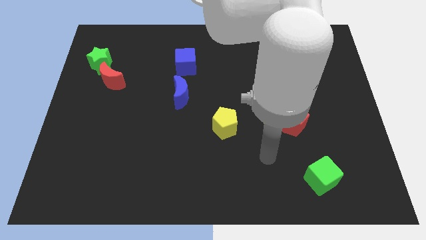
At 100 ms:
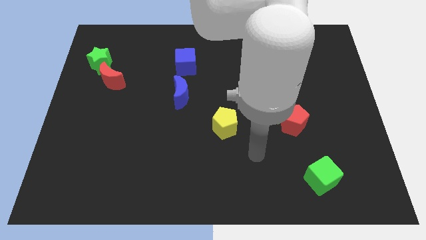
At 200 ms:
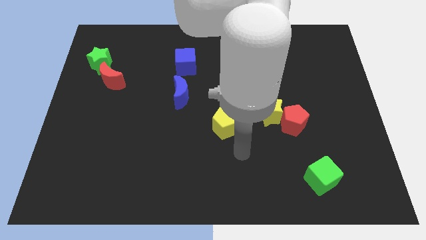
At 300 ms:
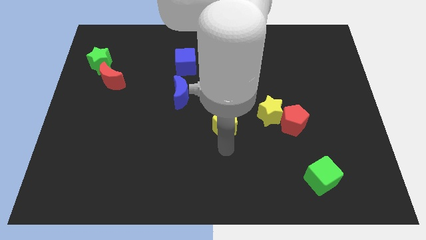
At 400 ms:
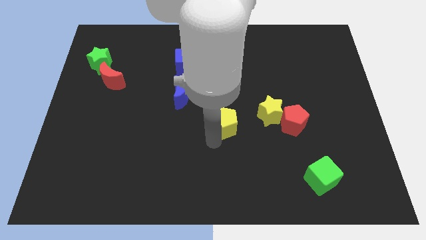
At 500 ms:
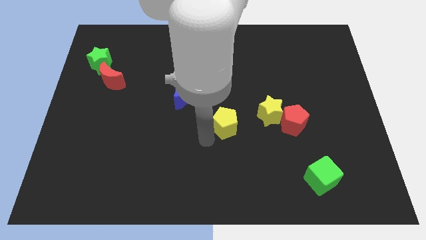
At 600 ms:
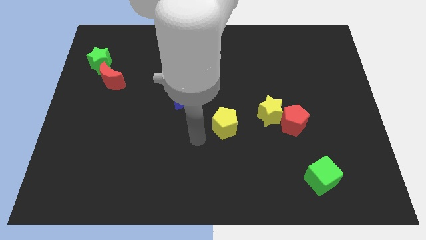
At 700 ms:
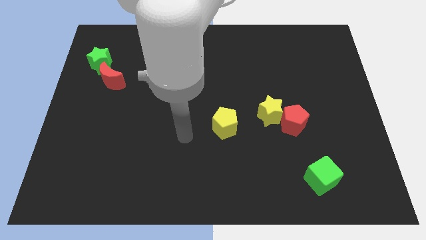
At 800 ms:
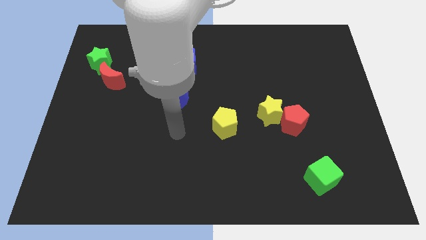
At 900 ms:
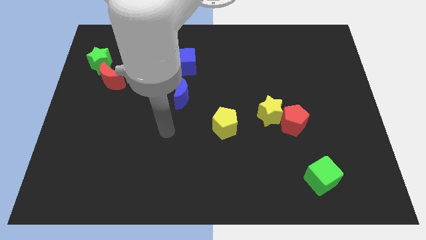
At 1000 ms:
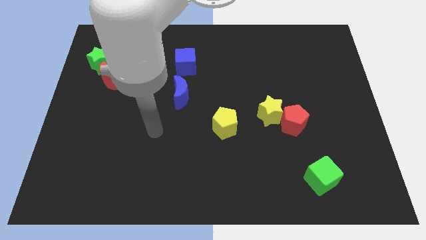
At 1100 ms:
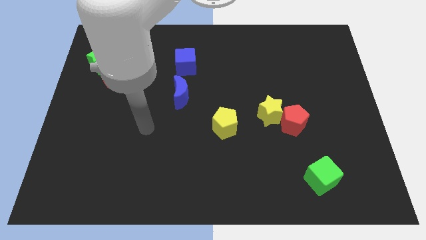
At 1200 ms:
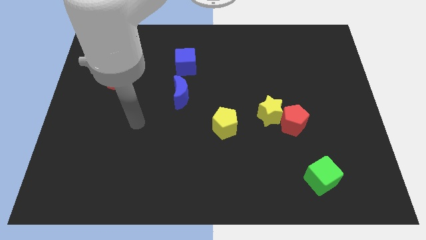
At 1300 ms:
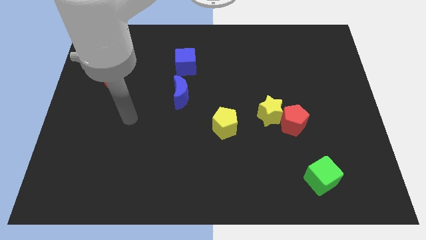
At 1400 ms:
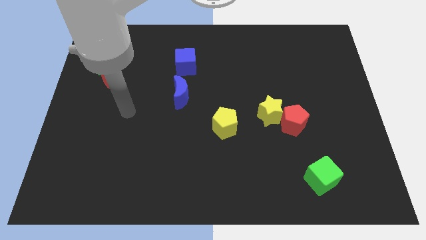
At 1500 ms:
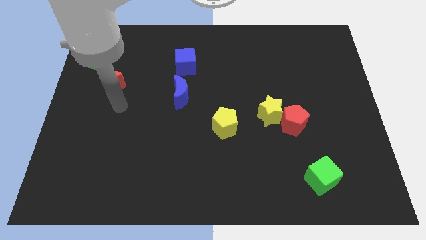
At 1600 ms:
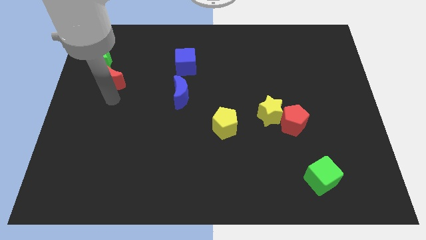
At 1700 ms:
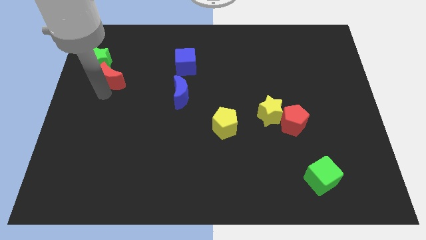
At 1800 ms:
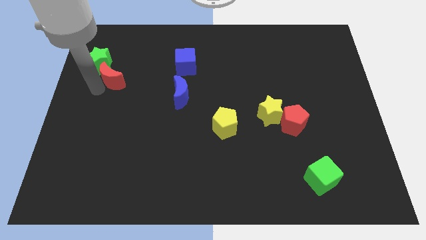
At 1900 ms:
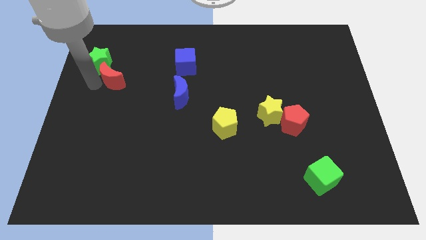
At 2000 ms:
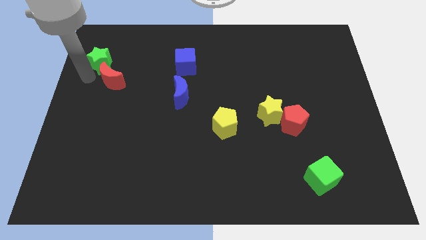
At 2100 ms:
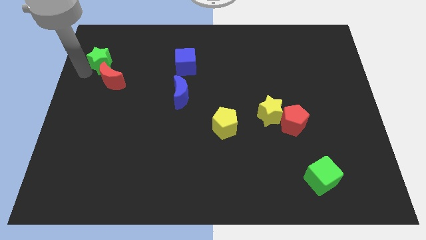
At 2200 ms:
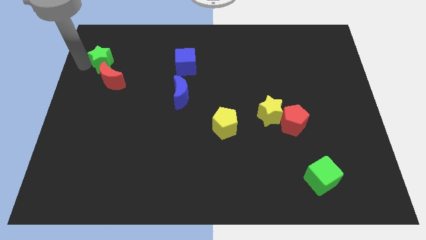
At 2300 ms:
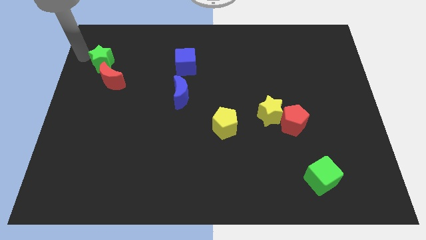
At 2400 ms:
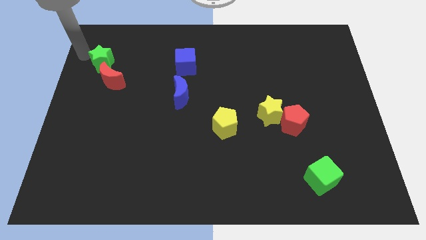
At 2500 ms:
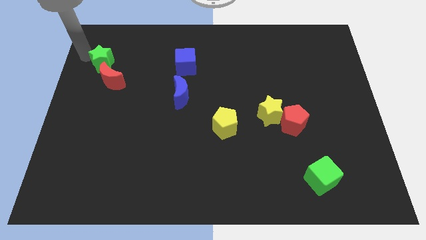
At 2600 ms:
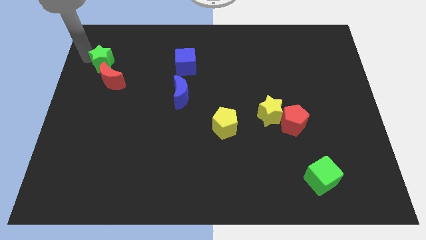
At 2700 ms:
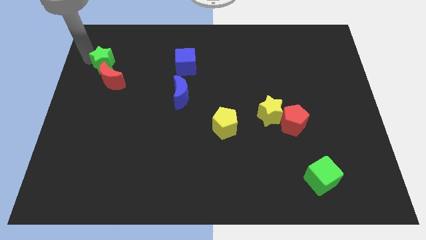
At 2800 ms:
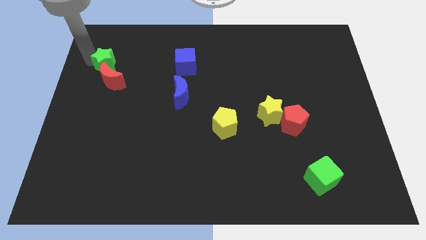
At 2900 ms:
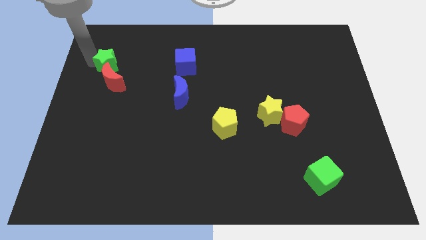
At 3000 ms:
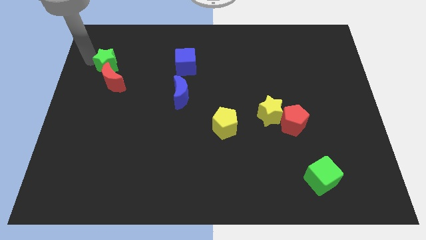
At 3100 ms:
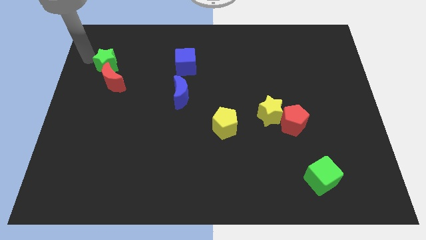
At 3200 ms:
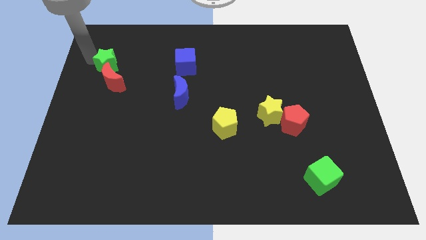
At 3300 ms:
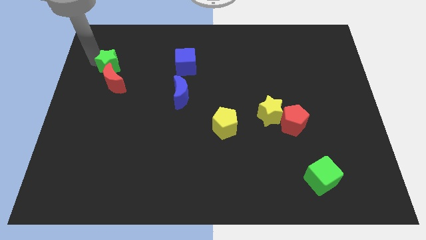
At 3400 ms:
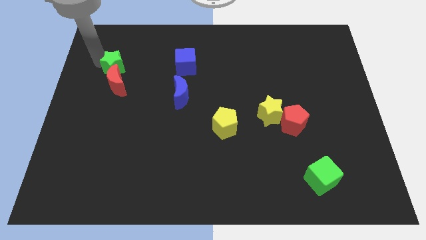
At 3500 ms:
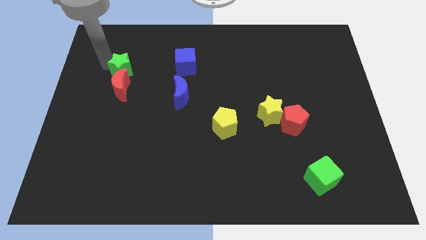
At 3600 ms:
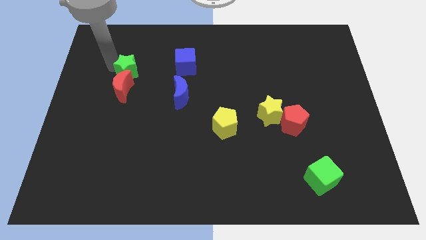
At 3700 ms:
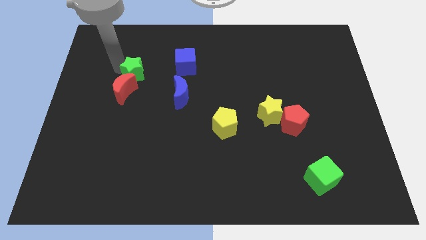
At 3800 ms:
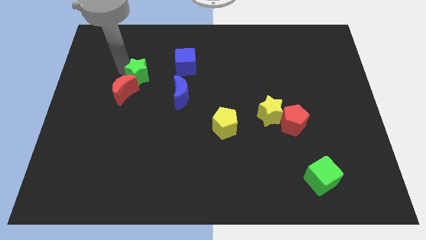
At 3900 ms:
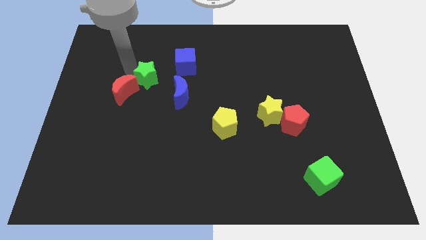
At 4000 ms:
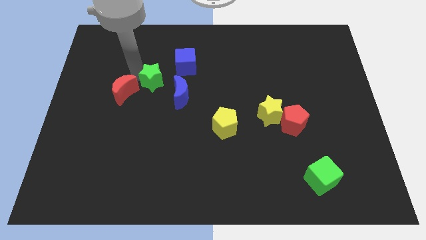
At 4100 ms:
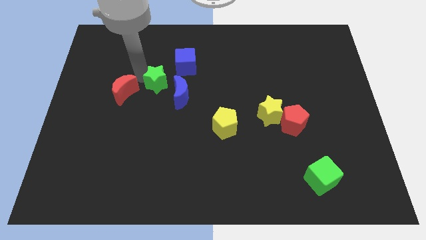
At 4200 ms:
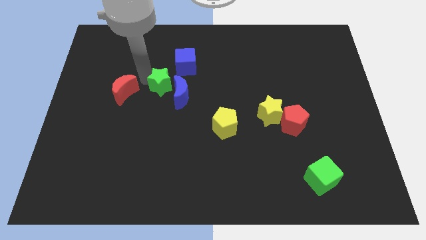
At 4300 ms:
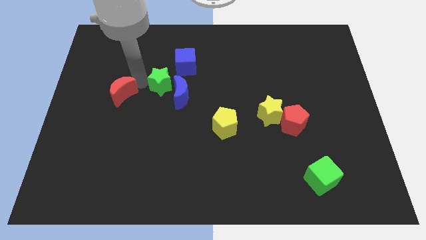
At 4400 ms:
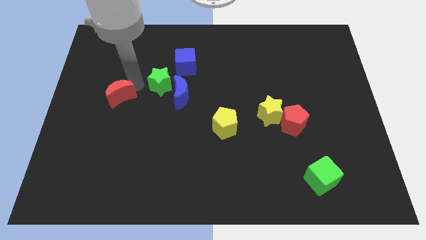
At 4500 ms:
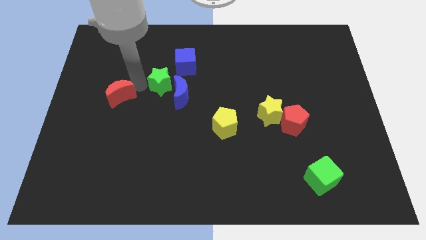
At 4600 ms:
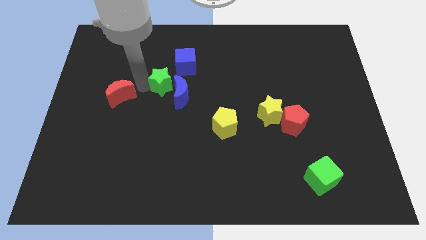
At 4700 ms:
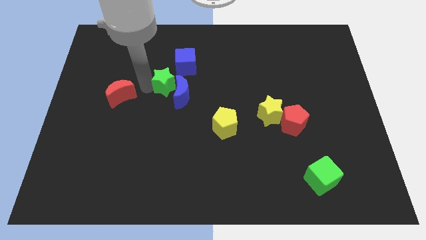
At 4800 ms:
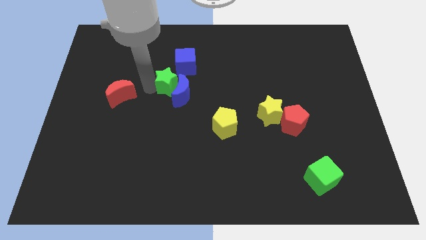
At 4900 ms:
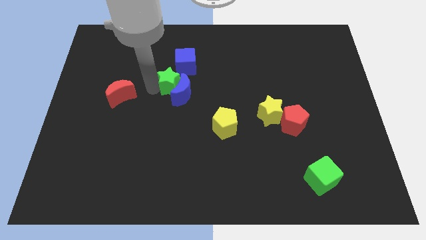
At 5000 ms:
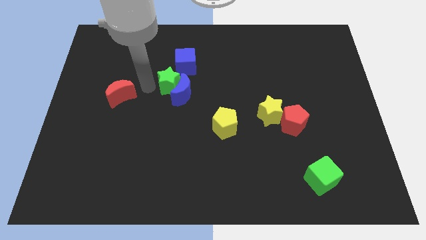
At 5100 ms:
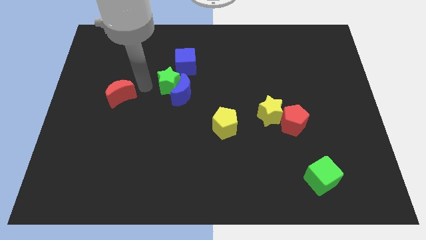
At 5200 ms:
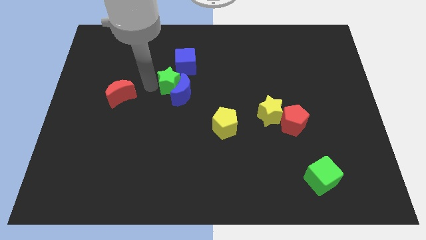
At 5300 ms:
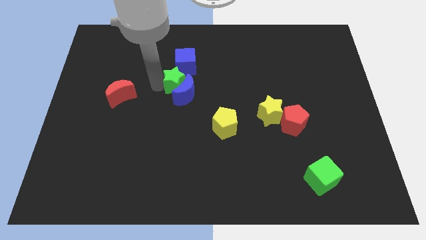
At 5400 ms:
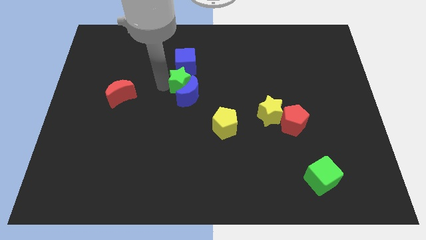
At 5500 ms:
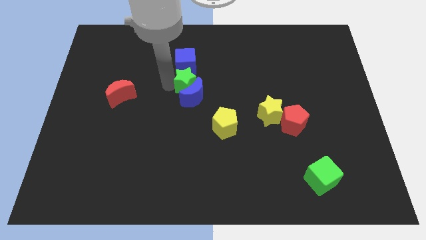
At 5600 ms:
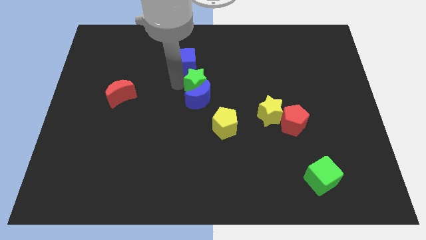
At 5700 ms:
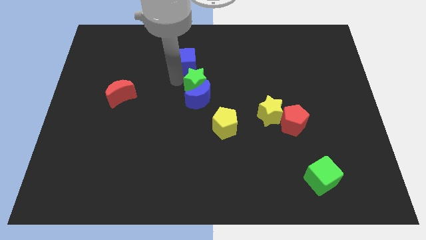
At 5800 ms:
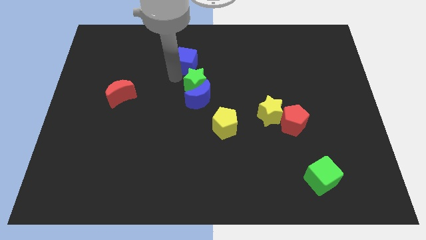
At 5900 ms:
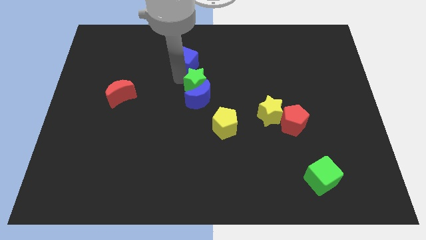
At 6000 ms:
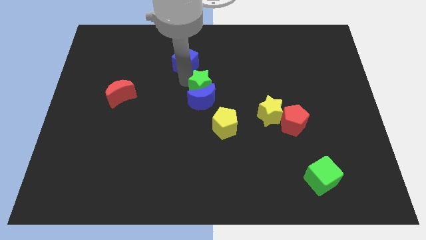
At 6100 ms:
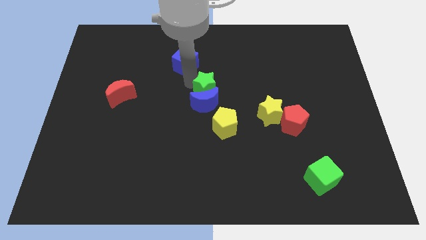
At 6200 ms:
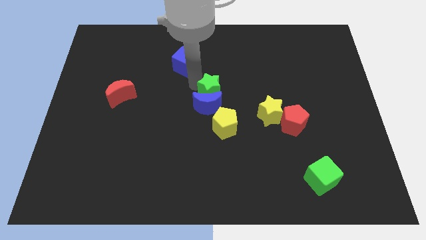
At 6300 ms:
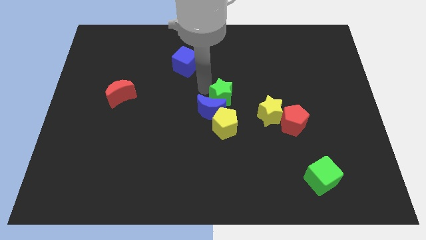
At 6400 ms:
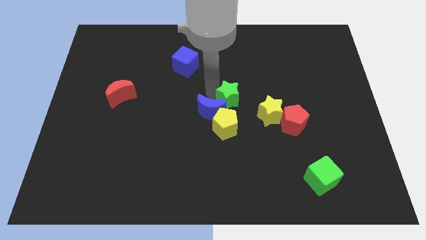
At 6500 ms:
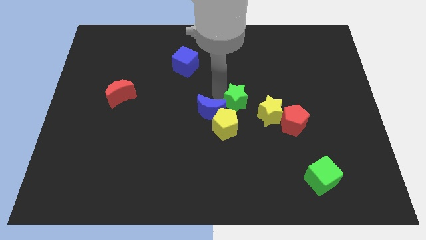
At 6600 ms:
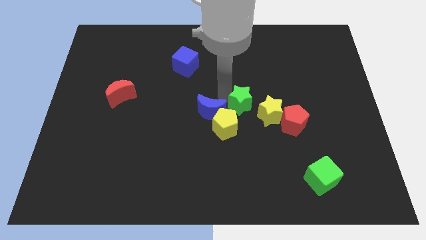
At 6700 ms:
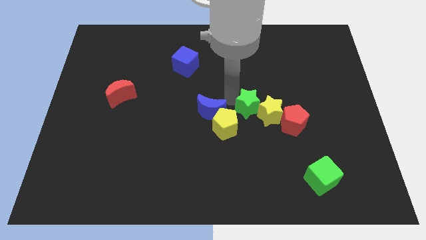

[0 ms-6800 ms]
move the green star close to the yellow star

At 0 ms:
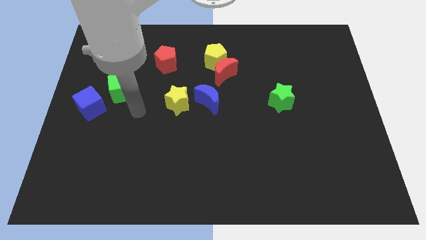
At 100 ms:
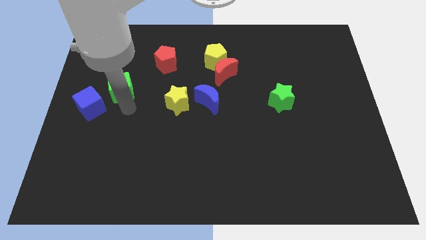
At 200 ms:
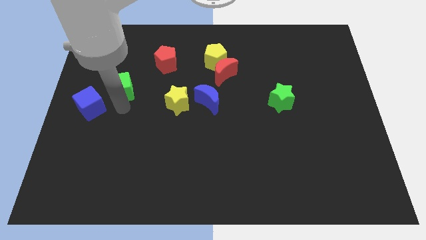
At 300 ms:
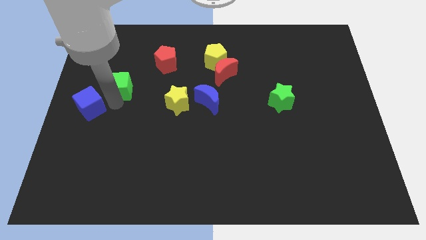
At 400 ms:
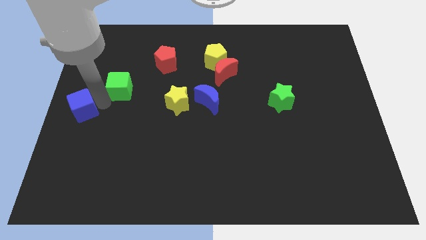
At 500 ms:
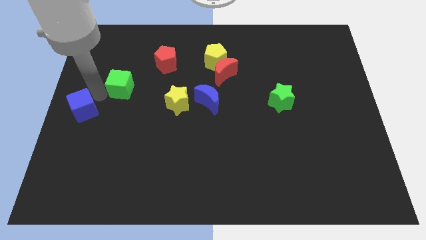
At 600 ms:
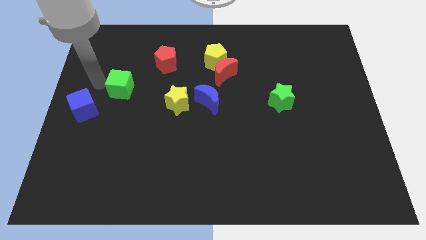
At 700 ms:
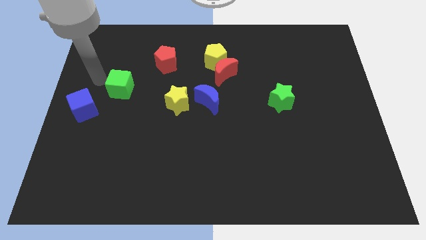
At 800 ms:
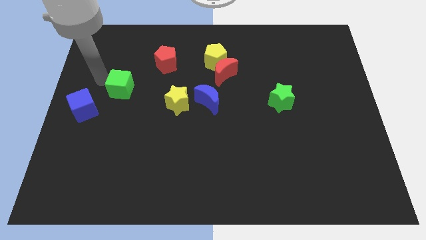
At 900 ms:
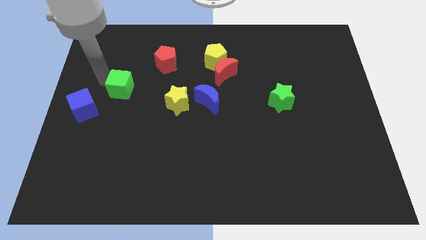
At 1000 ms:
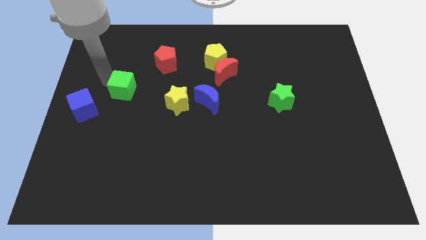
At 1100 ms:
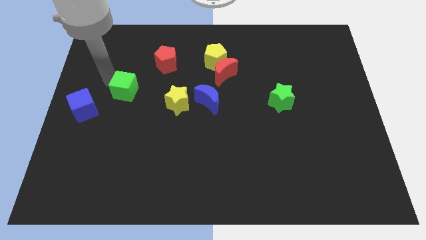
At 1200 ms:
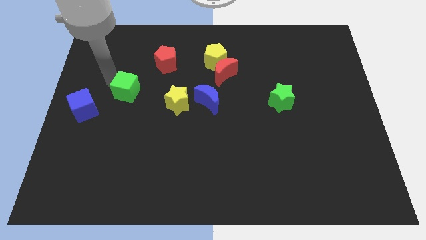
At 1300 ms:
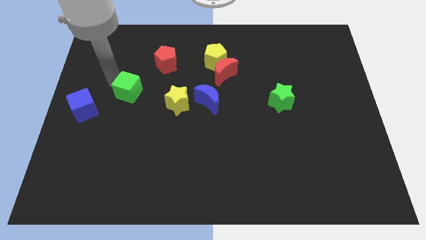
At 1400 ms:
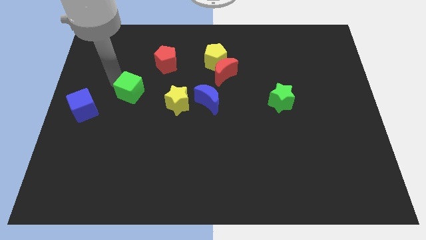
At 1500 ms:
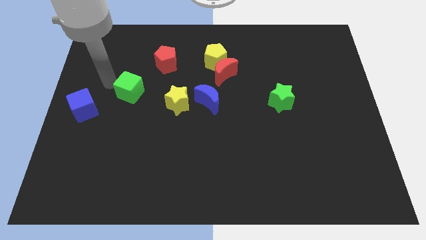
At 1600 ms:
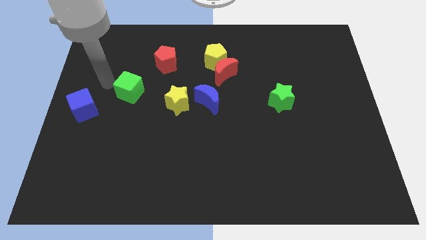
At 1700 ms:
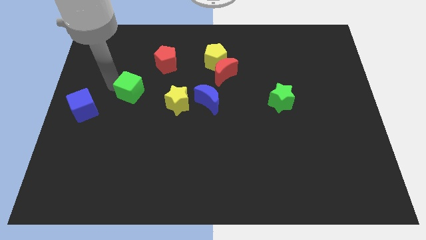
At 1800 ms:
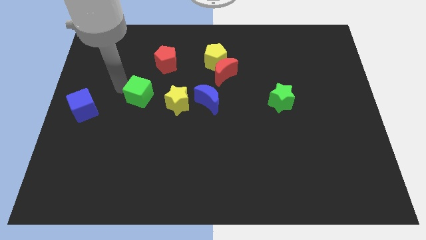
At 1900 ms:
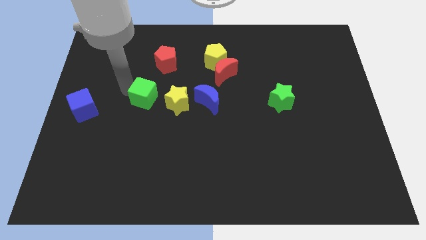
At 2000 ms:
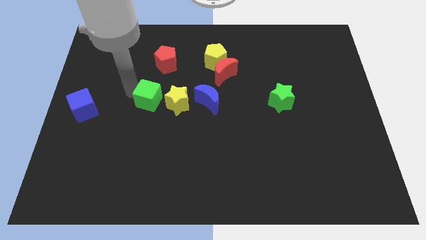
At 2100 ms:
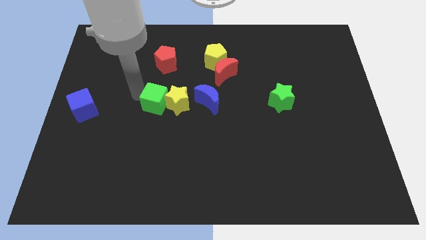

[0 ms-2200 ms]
move the green cube to the yellow star
